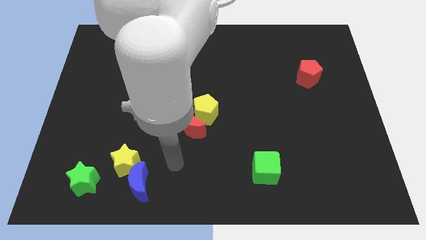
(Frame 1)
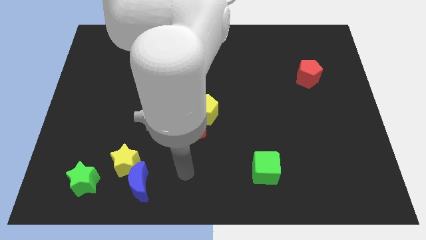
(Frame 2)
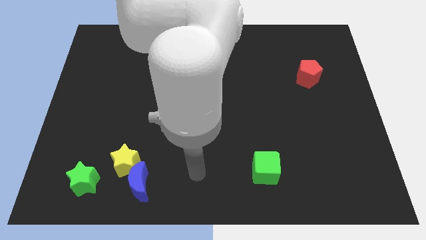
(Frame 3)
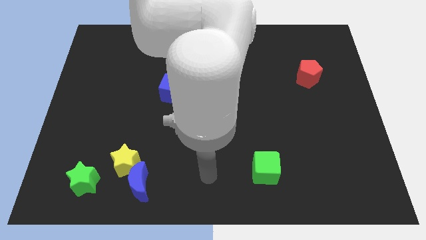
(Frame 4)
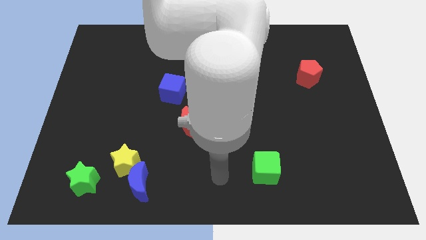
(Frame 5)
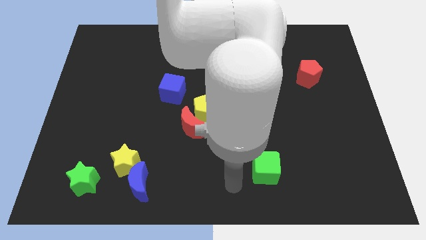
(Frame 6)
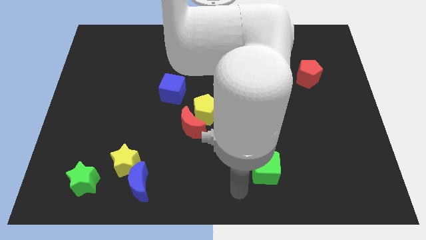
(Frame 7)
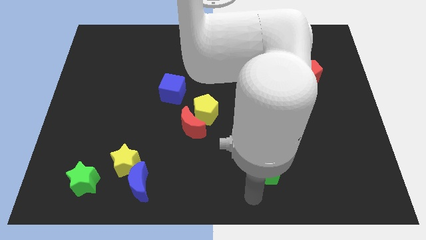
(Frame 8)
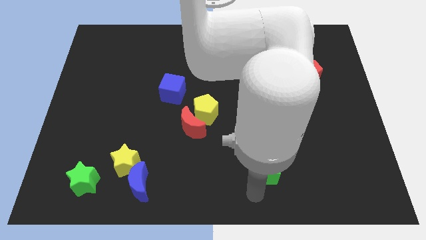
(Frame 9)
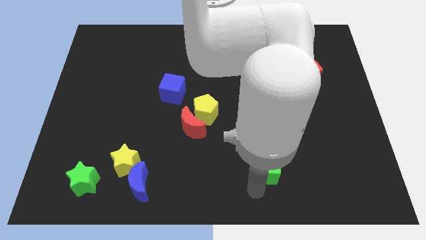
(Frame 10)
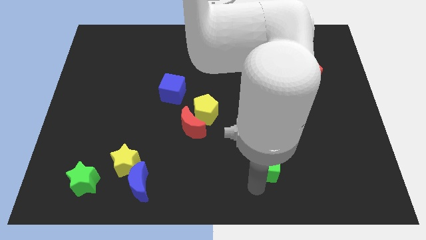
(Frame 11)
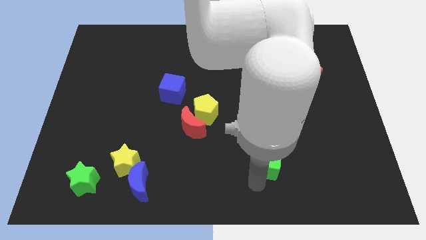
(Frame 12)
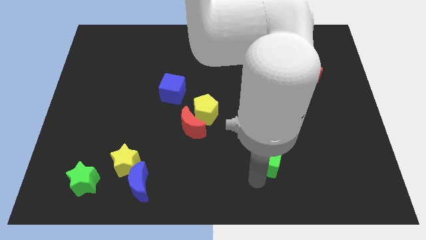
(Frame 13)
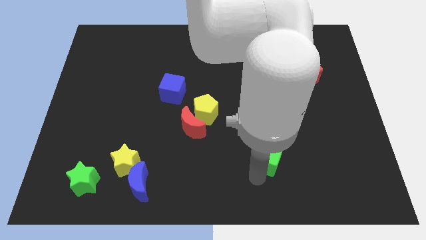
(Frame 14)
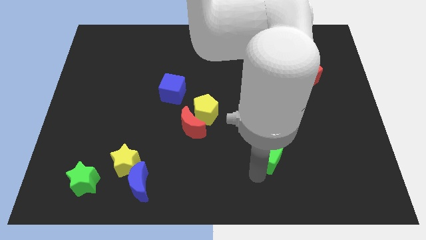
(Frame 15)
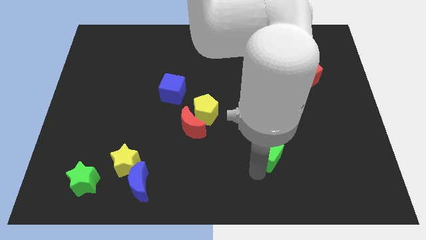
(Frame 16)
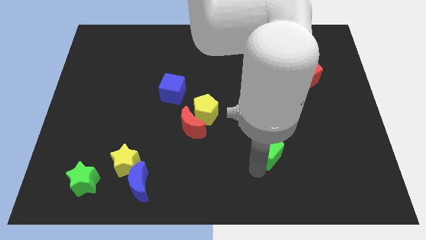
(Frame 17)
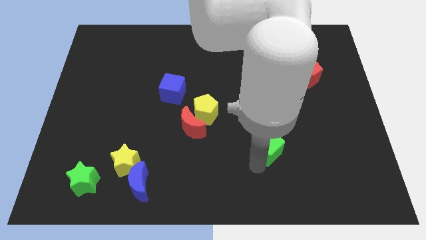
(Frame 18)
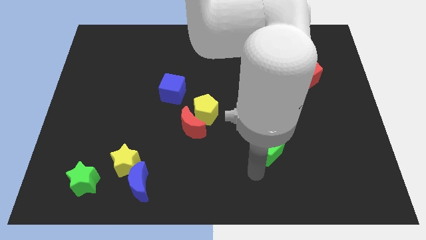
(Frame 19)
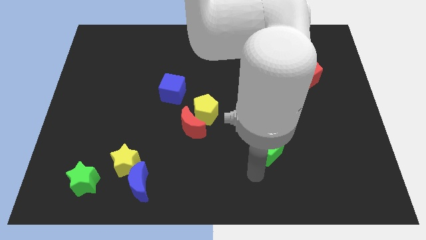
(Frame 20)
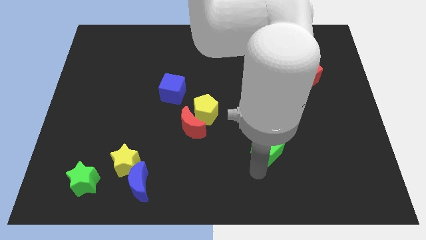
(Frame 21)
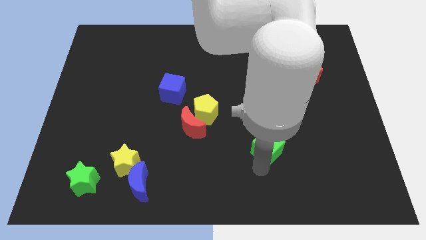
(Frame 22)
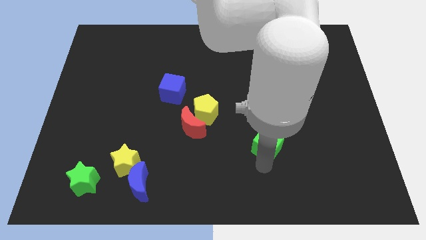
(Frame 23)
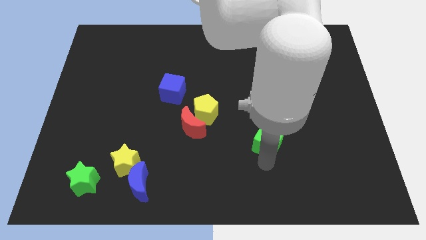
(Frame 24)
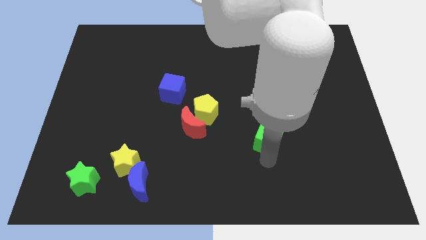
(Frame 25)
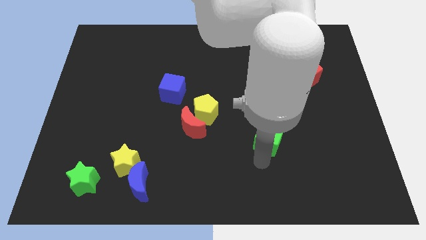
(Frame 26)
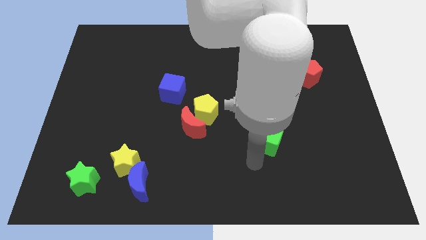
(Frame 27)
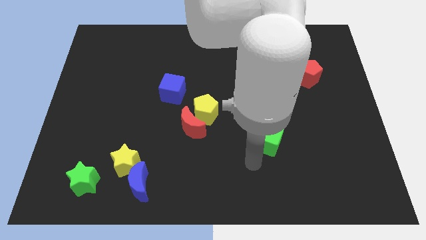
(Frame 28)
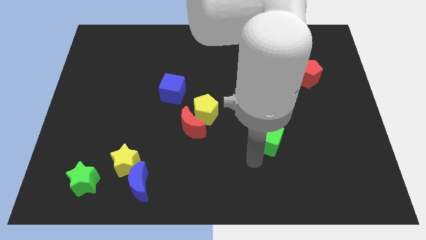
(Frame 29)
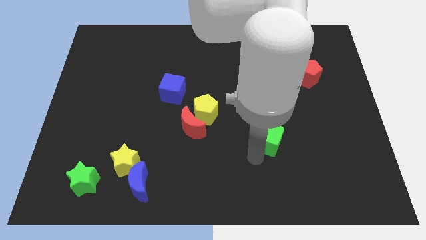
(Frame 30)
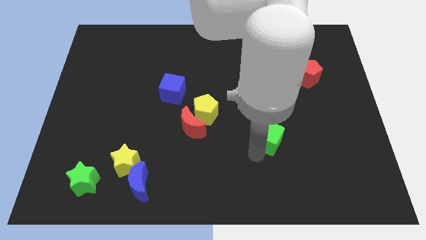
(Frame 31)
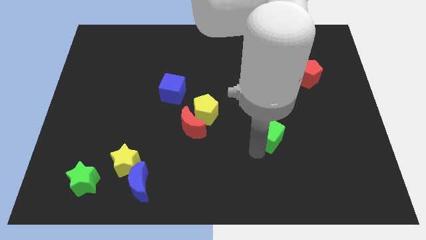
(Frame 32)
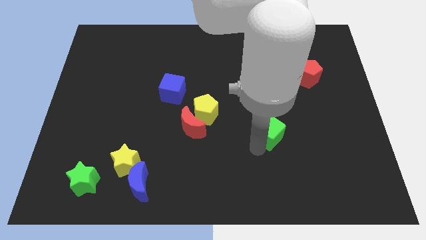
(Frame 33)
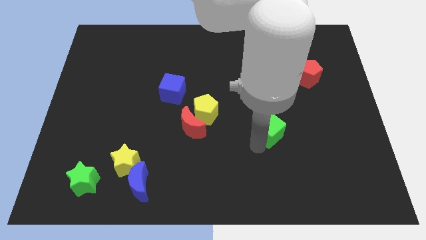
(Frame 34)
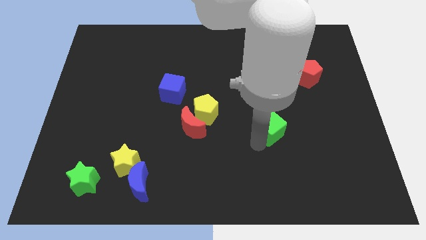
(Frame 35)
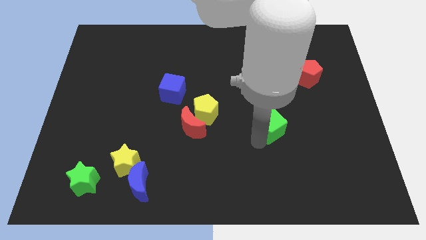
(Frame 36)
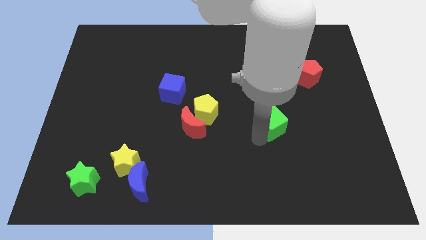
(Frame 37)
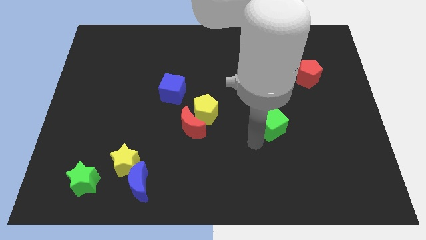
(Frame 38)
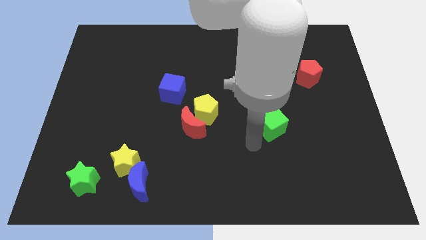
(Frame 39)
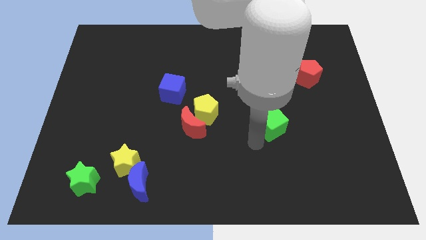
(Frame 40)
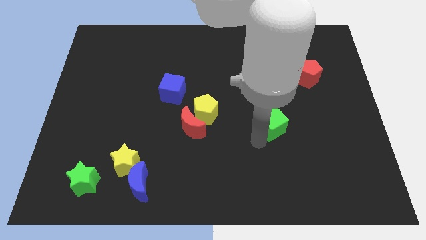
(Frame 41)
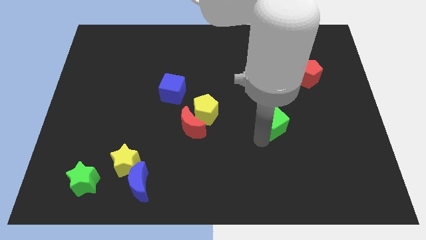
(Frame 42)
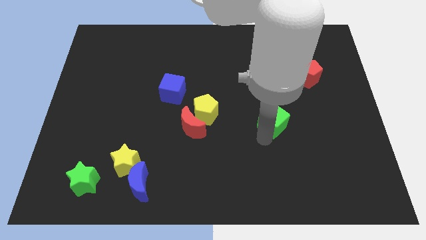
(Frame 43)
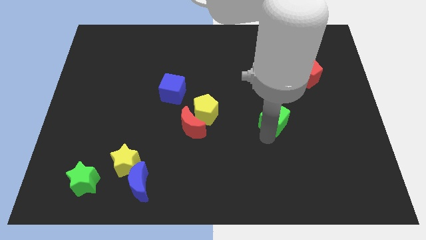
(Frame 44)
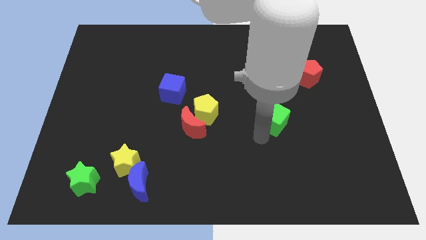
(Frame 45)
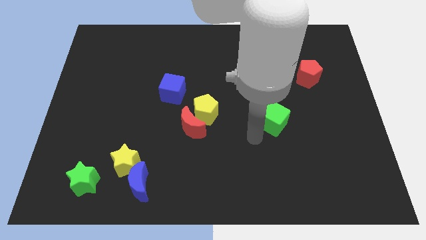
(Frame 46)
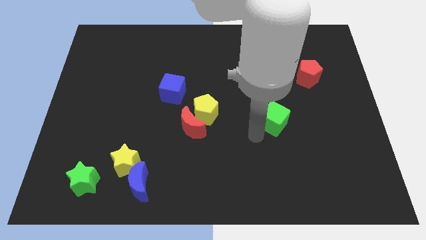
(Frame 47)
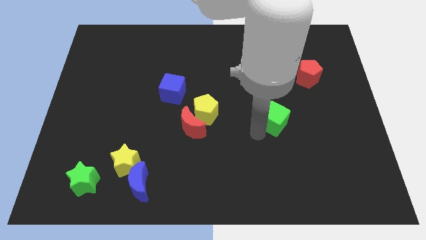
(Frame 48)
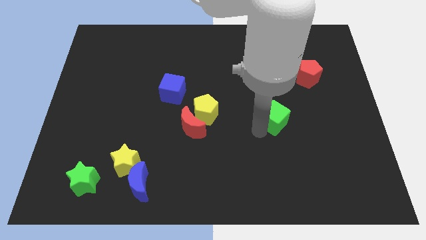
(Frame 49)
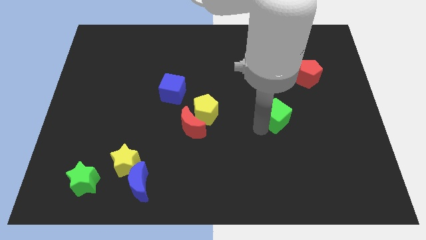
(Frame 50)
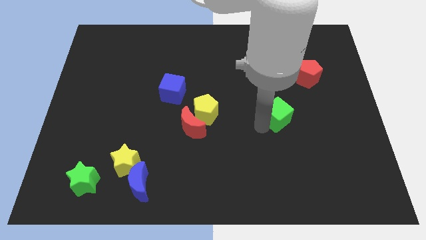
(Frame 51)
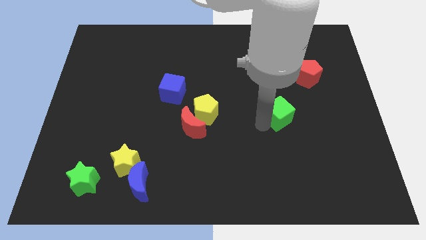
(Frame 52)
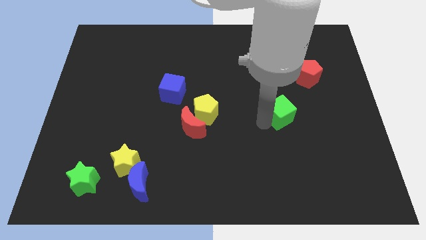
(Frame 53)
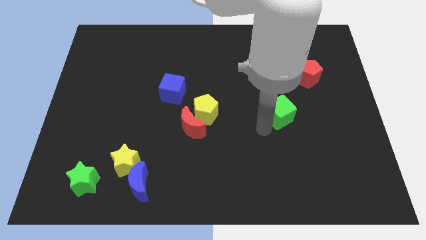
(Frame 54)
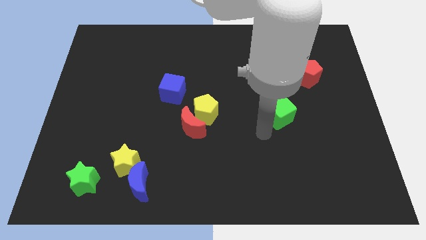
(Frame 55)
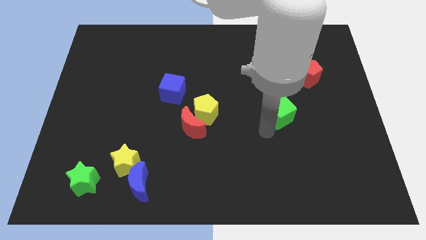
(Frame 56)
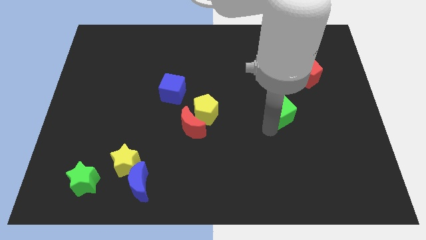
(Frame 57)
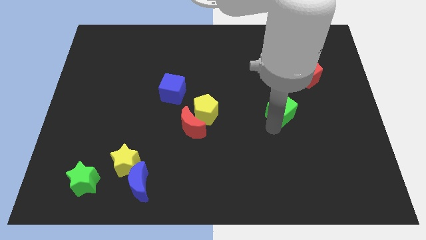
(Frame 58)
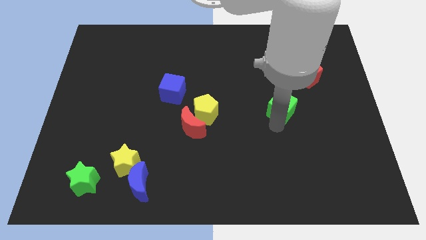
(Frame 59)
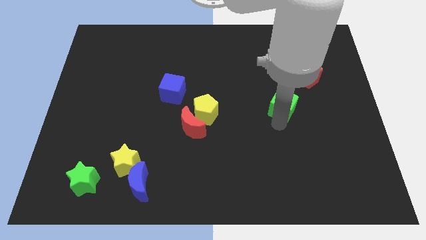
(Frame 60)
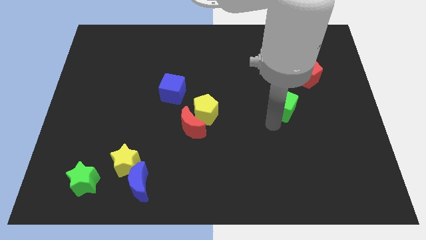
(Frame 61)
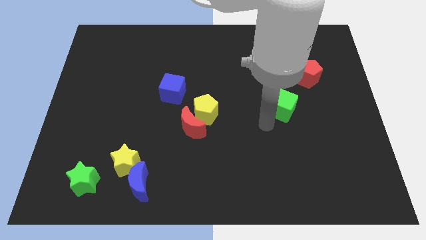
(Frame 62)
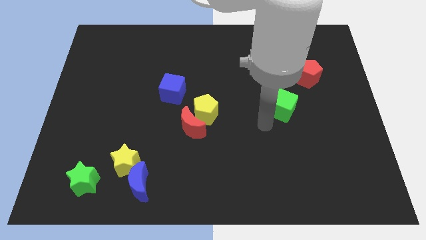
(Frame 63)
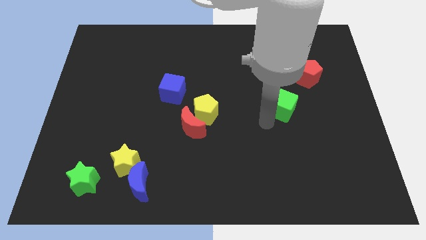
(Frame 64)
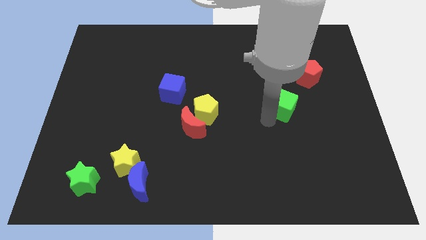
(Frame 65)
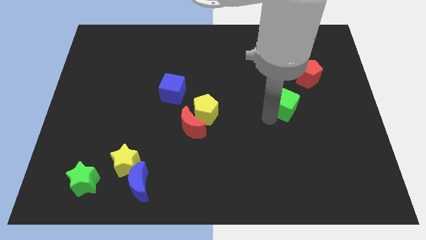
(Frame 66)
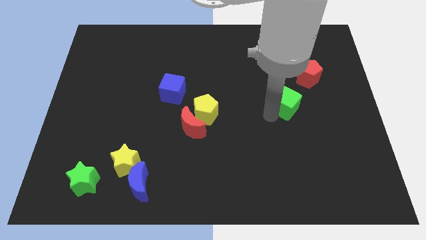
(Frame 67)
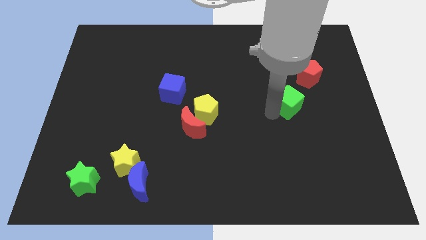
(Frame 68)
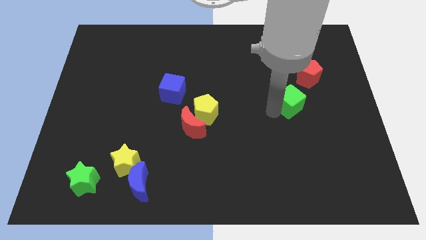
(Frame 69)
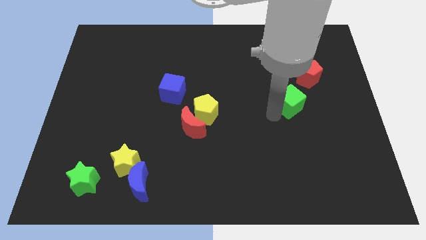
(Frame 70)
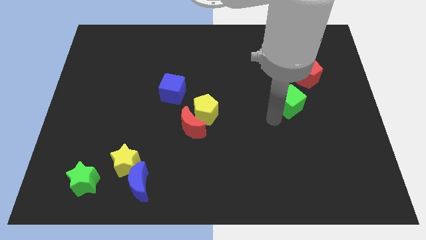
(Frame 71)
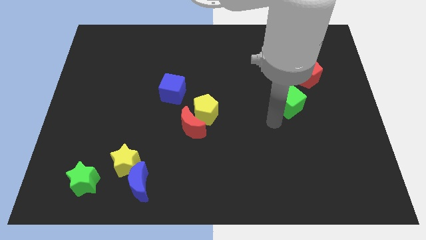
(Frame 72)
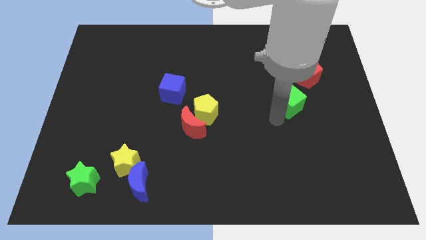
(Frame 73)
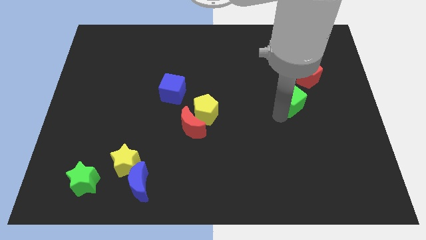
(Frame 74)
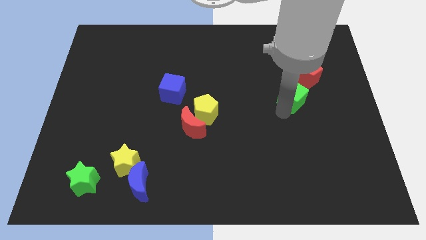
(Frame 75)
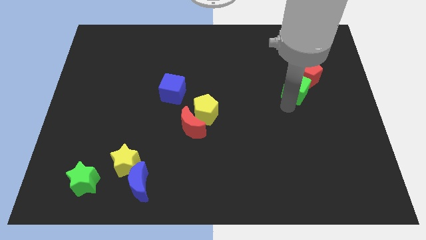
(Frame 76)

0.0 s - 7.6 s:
move the green cube close to the red pentagon
